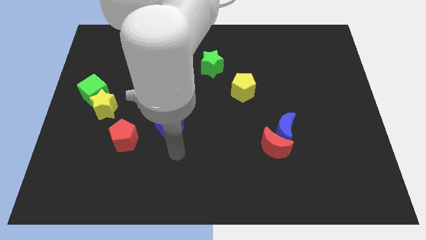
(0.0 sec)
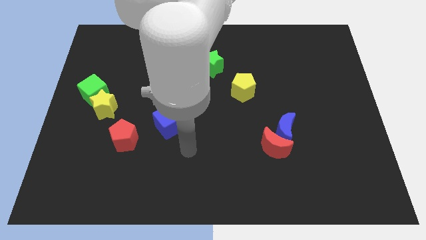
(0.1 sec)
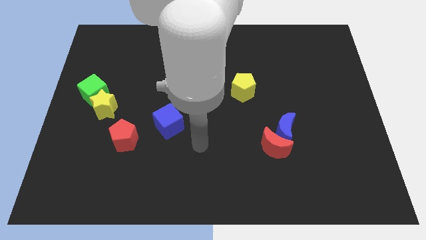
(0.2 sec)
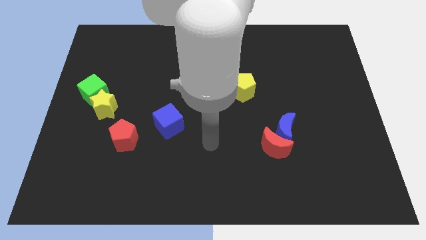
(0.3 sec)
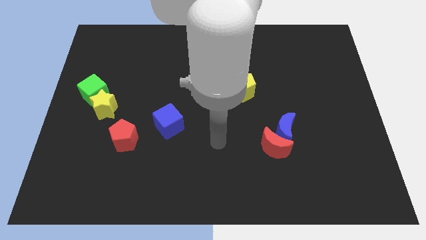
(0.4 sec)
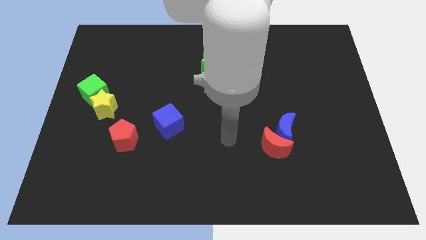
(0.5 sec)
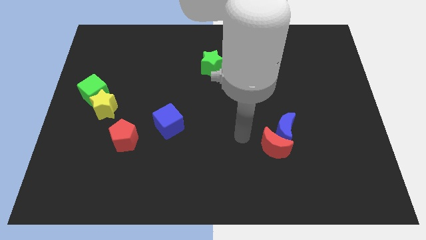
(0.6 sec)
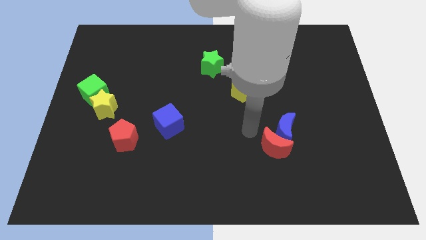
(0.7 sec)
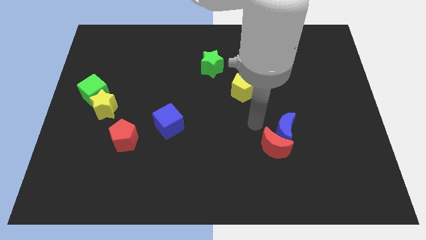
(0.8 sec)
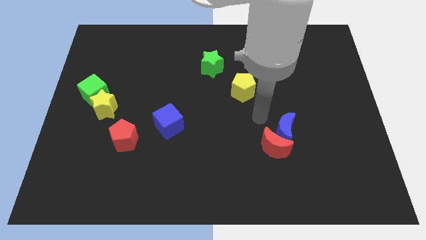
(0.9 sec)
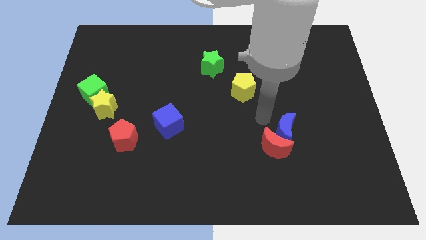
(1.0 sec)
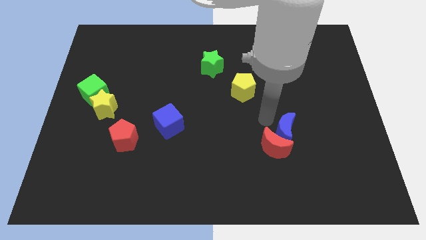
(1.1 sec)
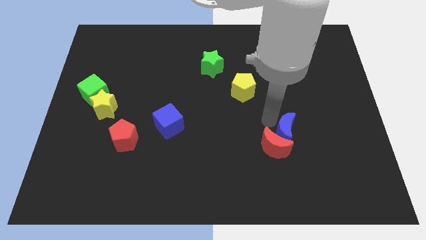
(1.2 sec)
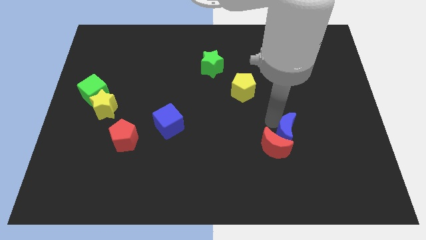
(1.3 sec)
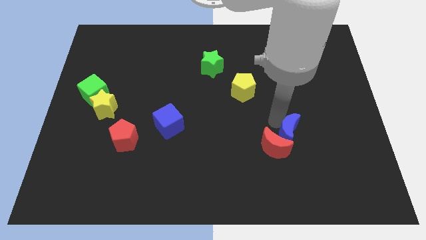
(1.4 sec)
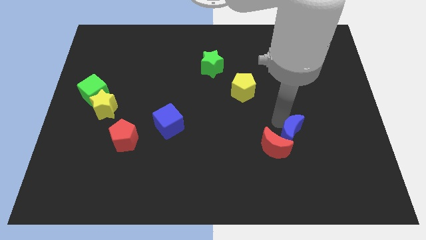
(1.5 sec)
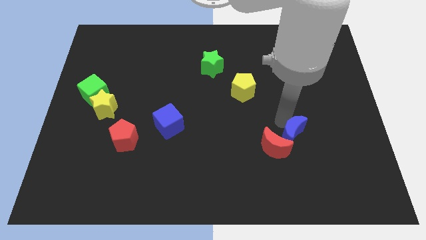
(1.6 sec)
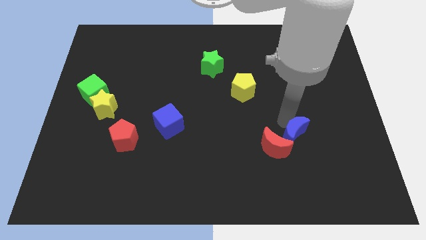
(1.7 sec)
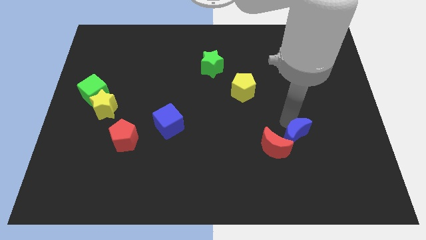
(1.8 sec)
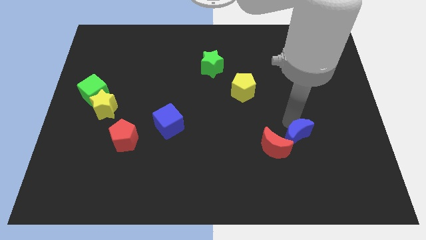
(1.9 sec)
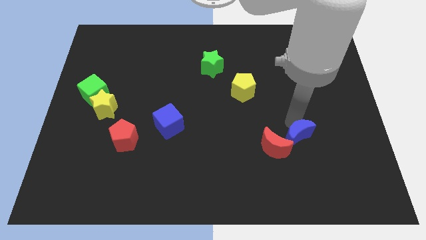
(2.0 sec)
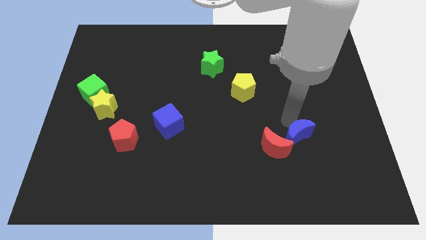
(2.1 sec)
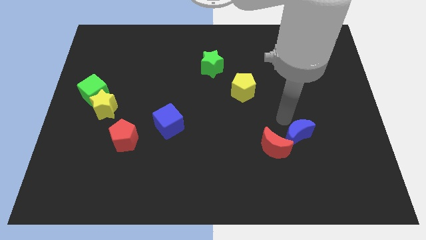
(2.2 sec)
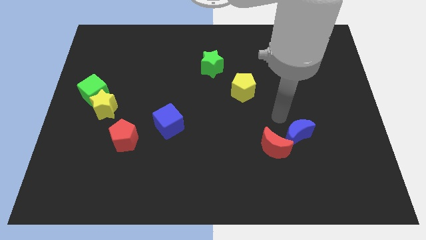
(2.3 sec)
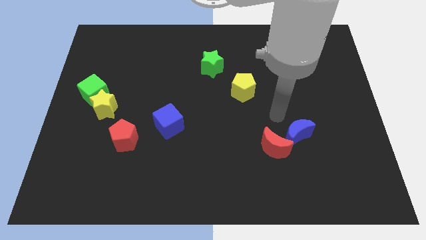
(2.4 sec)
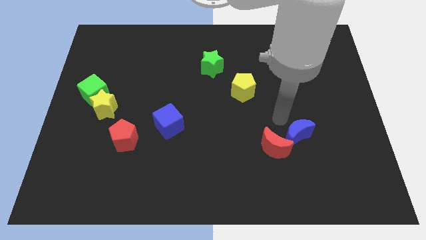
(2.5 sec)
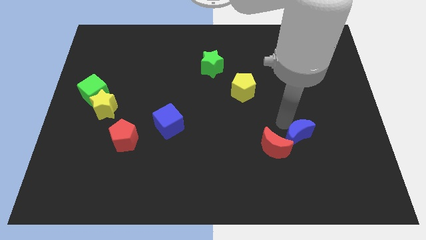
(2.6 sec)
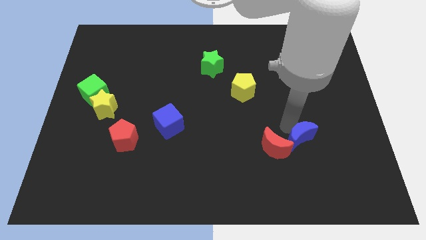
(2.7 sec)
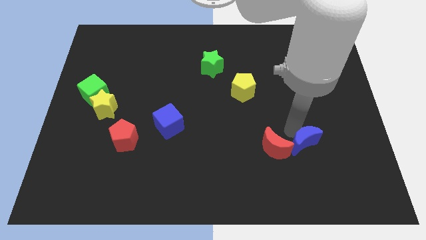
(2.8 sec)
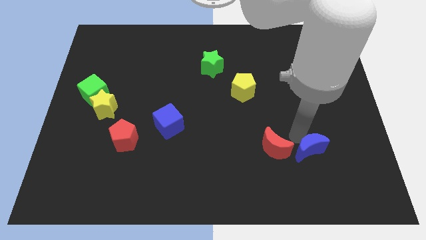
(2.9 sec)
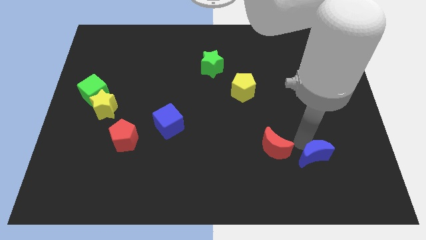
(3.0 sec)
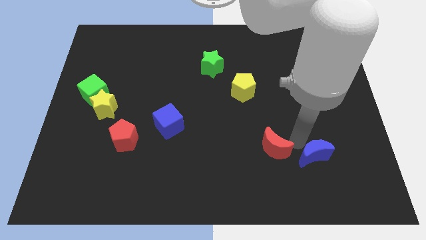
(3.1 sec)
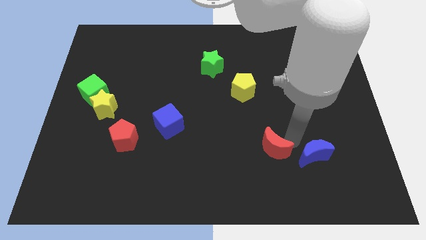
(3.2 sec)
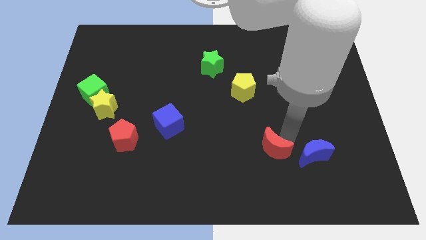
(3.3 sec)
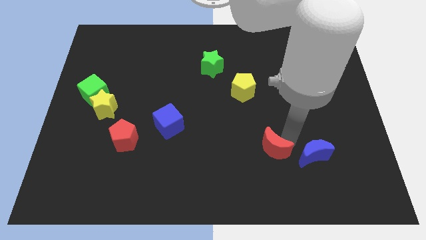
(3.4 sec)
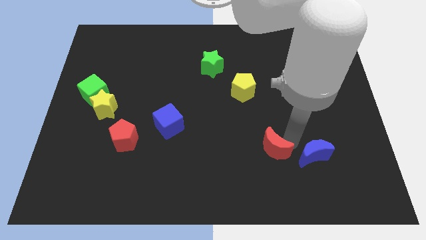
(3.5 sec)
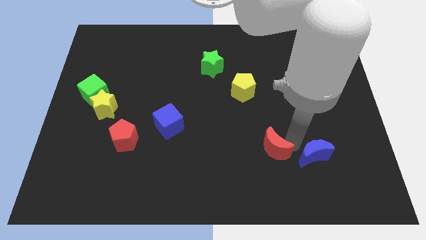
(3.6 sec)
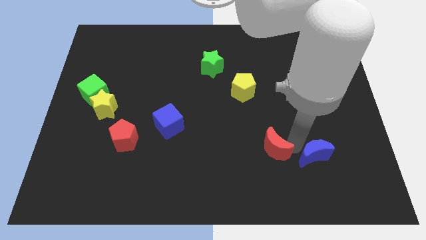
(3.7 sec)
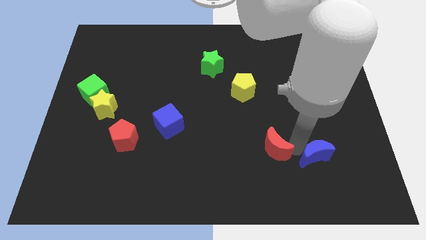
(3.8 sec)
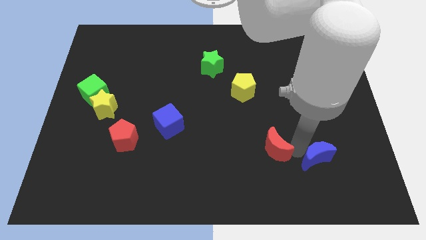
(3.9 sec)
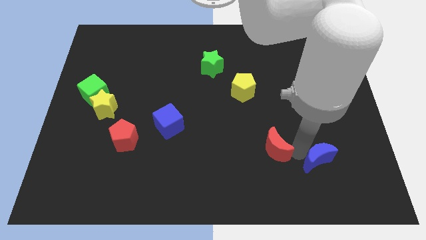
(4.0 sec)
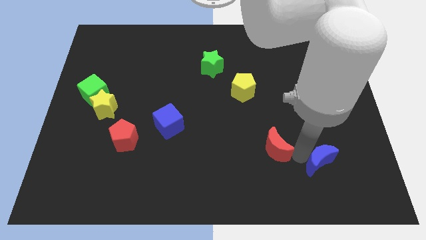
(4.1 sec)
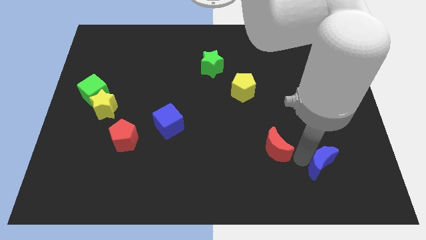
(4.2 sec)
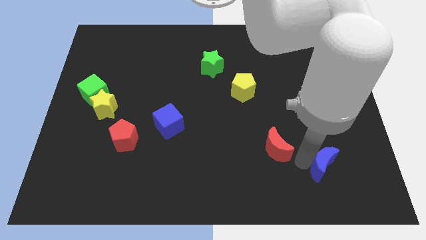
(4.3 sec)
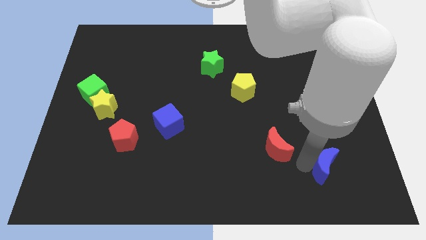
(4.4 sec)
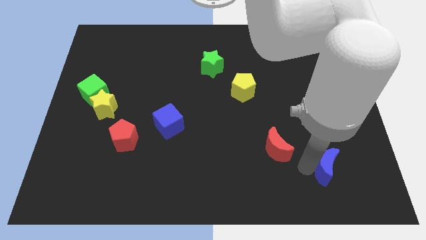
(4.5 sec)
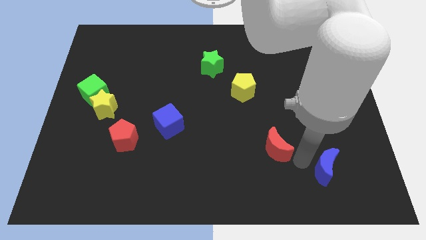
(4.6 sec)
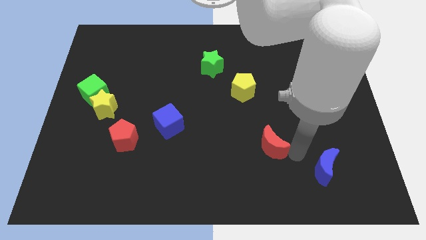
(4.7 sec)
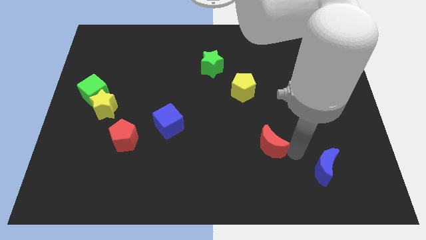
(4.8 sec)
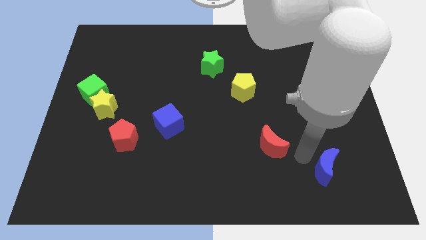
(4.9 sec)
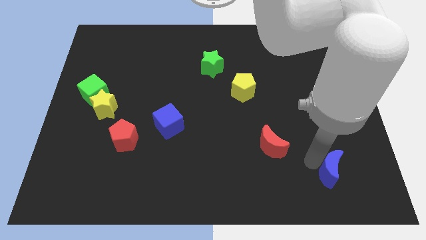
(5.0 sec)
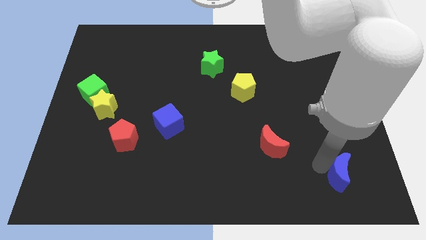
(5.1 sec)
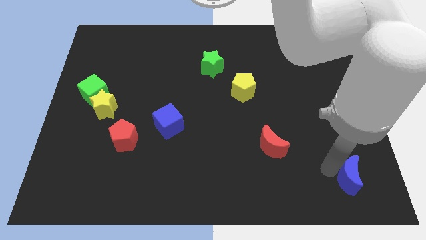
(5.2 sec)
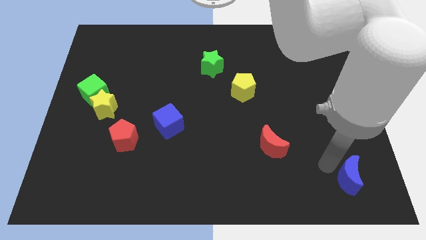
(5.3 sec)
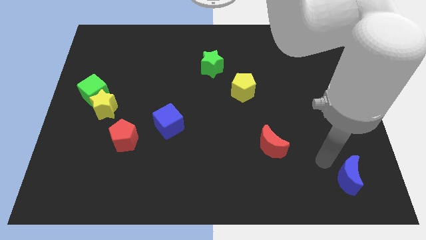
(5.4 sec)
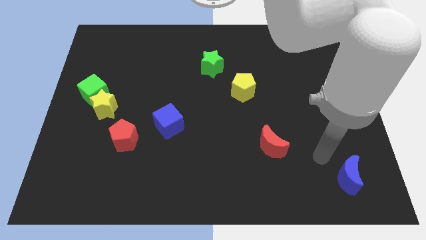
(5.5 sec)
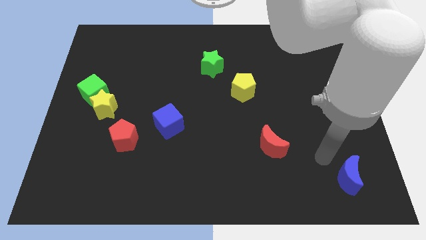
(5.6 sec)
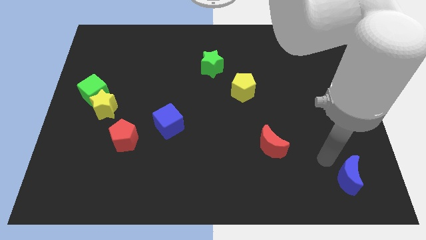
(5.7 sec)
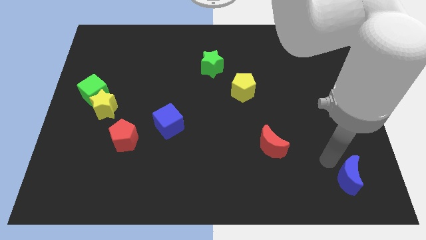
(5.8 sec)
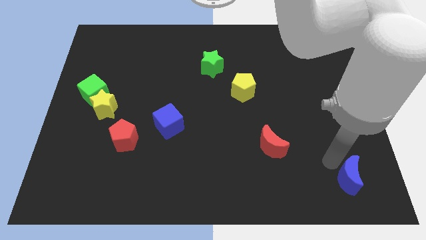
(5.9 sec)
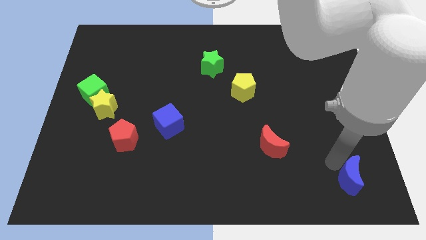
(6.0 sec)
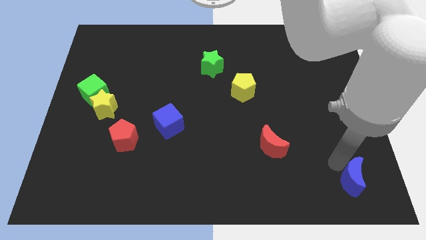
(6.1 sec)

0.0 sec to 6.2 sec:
put the blue moon to the bottom right corner
